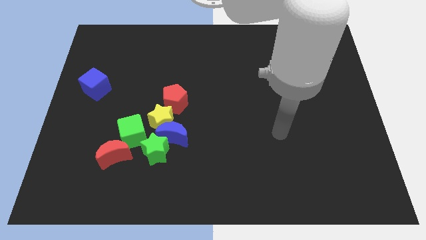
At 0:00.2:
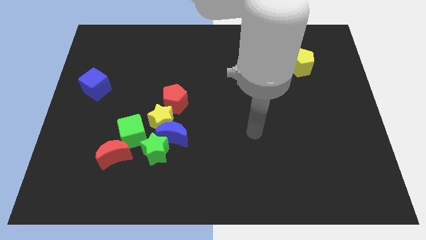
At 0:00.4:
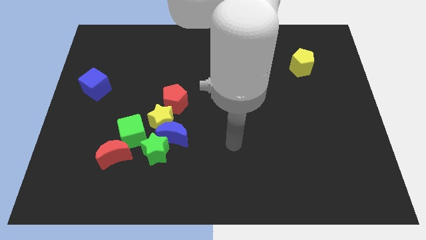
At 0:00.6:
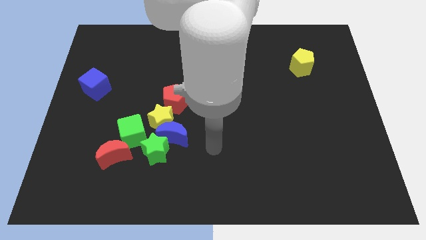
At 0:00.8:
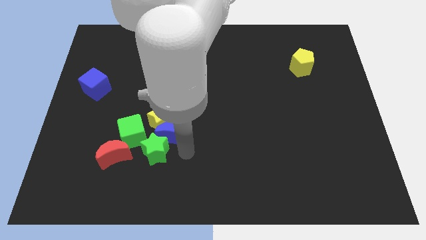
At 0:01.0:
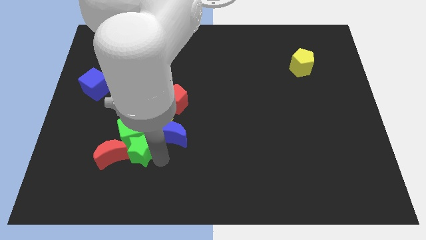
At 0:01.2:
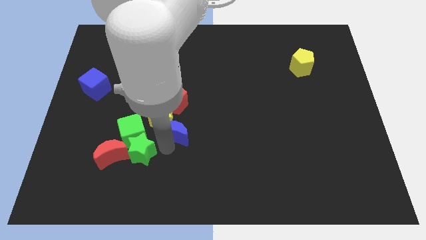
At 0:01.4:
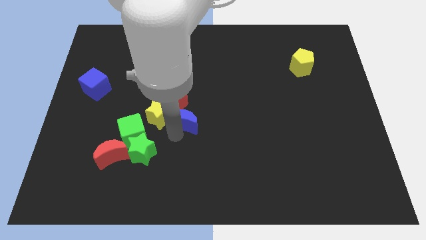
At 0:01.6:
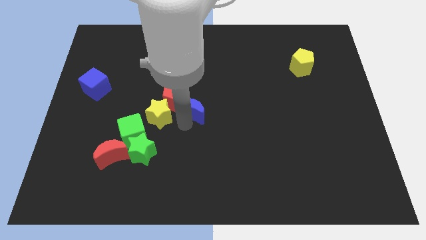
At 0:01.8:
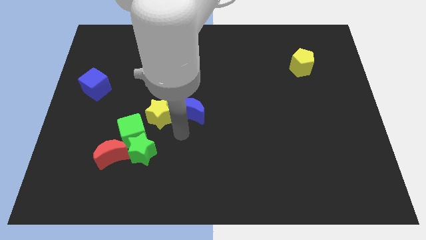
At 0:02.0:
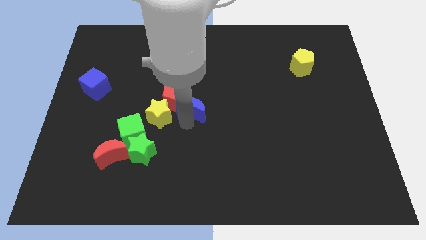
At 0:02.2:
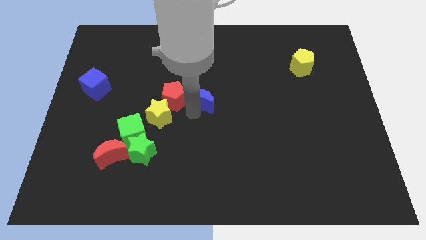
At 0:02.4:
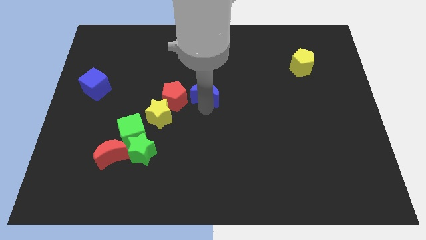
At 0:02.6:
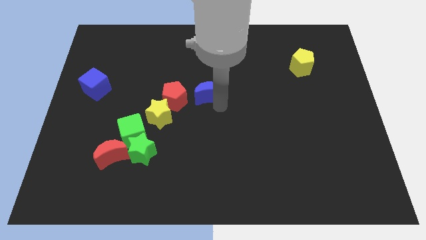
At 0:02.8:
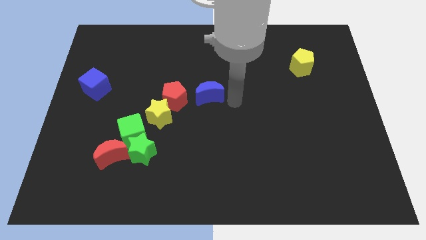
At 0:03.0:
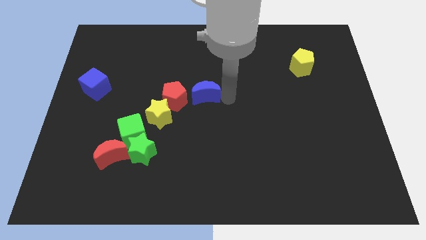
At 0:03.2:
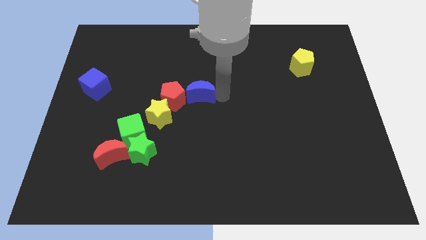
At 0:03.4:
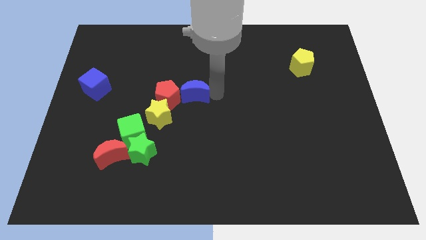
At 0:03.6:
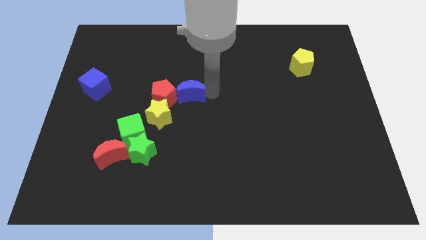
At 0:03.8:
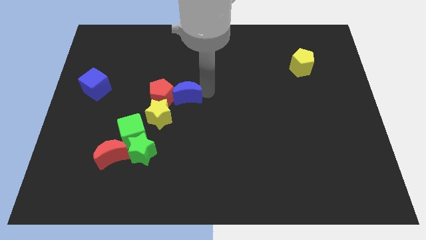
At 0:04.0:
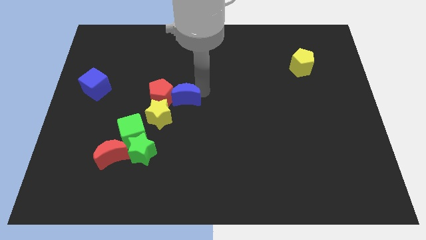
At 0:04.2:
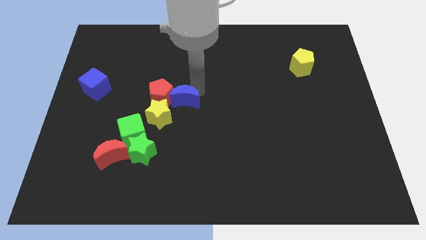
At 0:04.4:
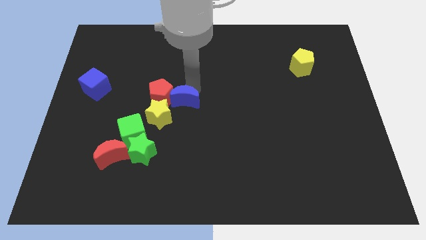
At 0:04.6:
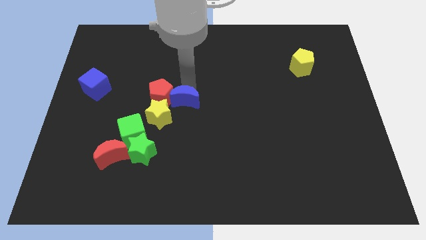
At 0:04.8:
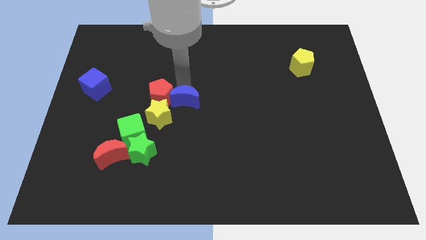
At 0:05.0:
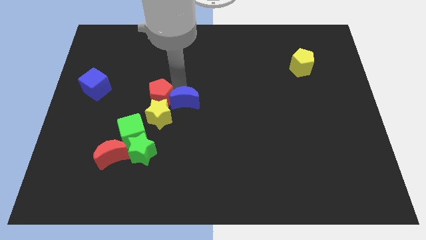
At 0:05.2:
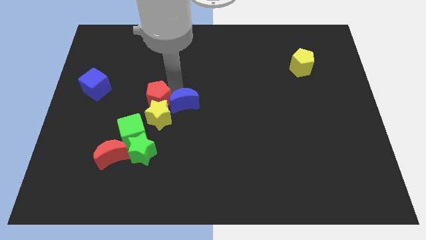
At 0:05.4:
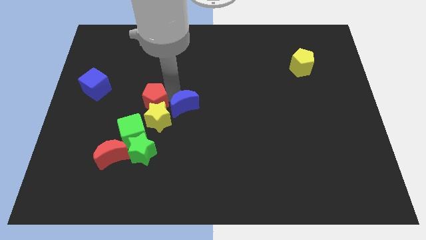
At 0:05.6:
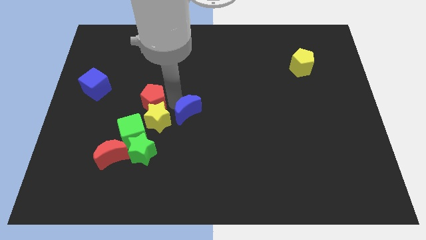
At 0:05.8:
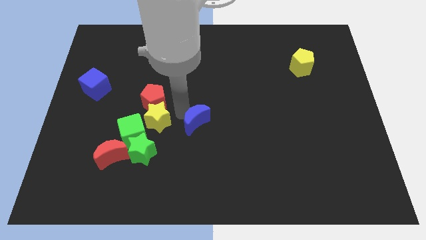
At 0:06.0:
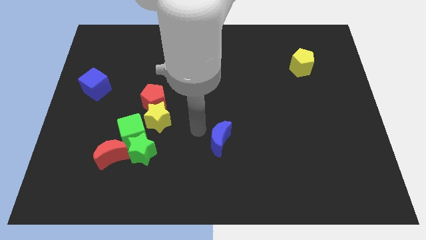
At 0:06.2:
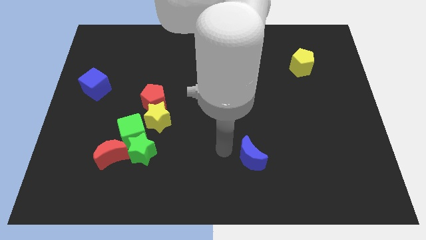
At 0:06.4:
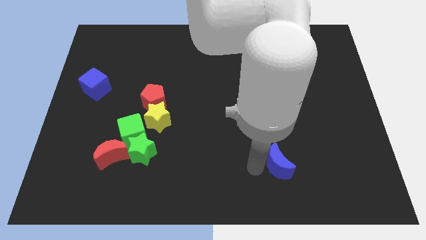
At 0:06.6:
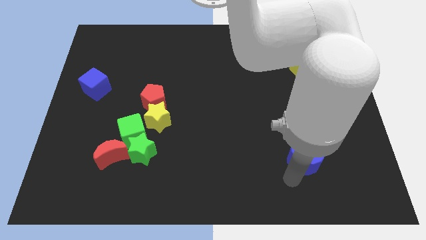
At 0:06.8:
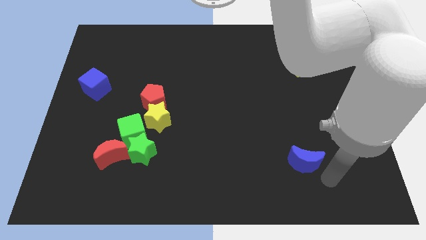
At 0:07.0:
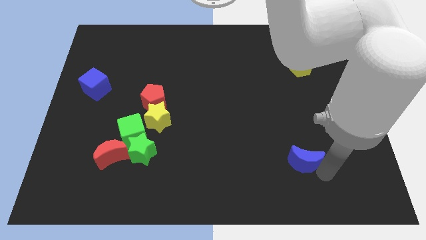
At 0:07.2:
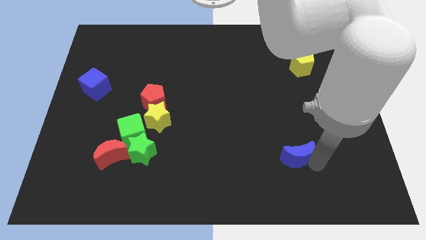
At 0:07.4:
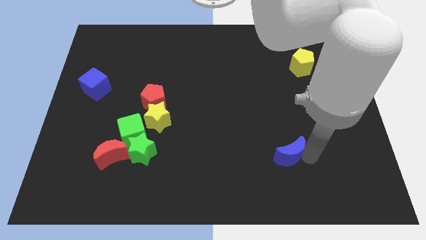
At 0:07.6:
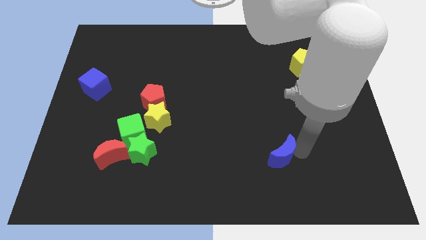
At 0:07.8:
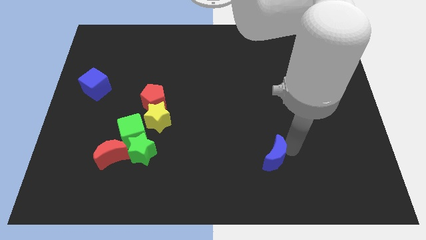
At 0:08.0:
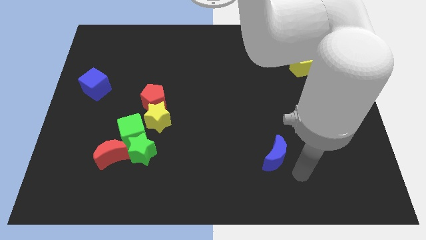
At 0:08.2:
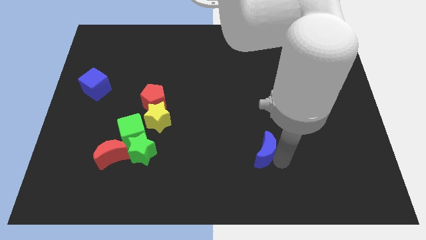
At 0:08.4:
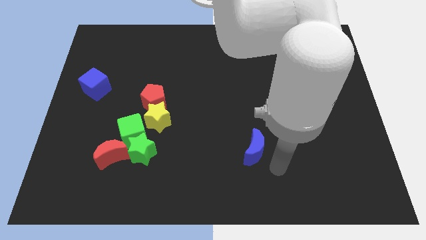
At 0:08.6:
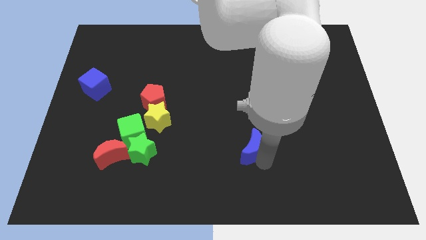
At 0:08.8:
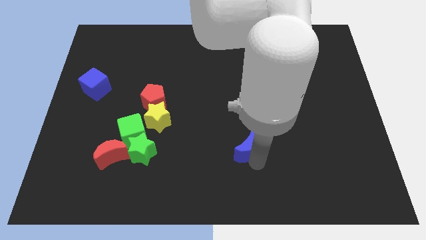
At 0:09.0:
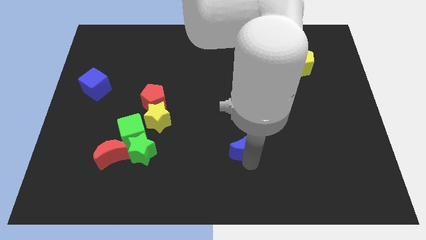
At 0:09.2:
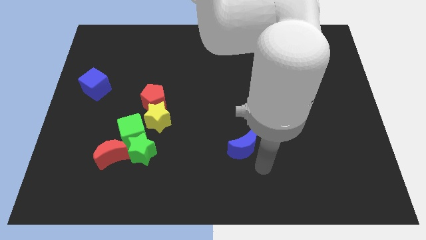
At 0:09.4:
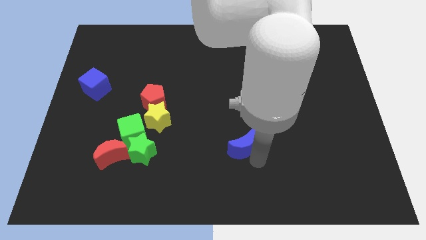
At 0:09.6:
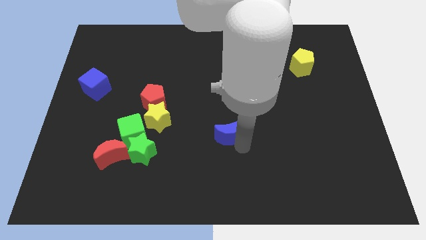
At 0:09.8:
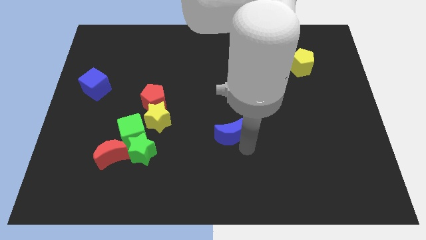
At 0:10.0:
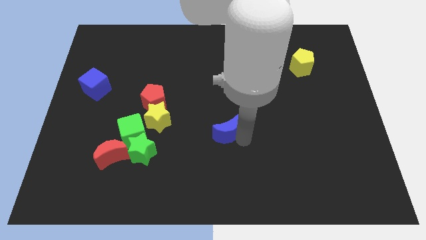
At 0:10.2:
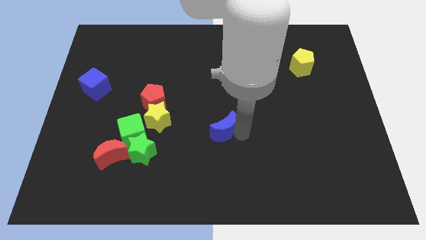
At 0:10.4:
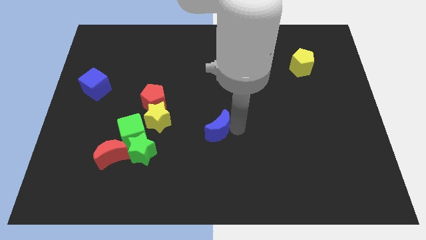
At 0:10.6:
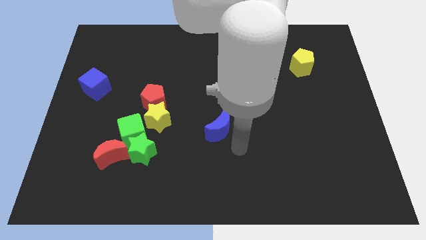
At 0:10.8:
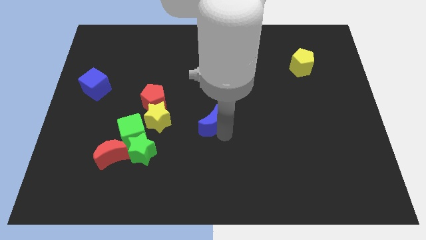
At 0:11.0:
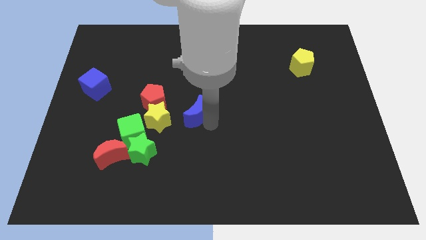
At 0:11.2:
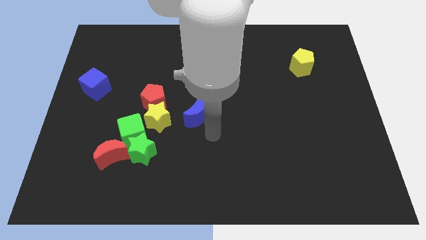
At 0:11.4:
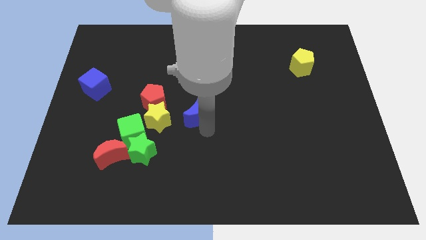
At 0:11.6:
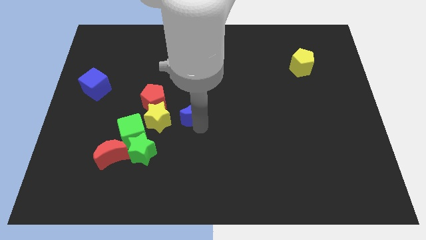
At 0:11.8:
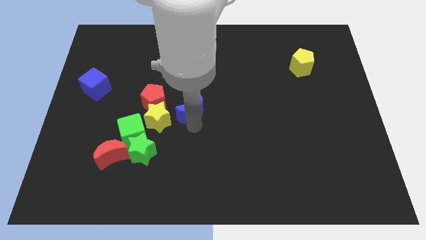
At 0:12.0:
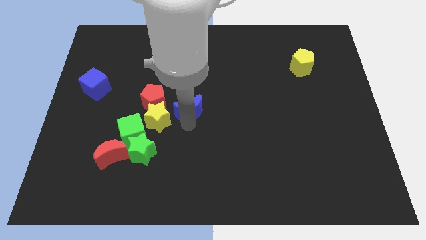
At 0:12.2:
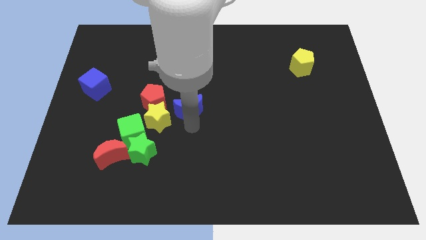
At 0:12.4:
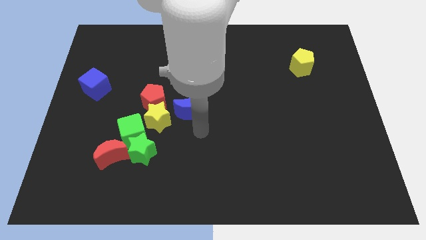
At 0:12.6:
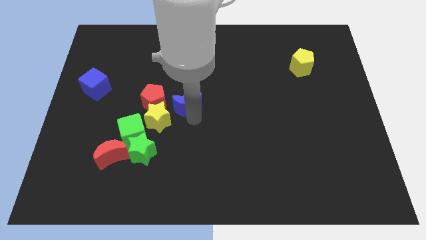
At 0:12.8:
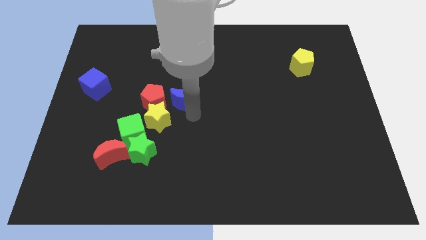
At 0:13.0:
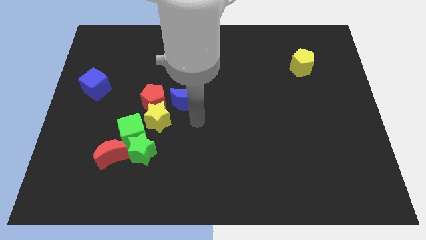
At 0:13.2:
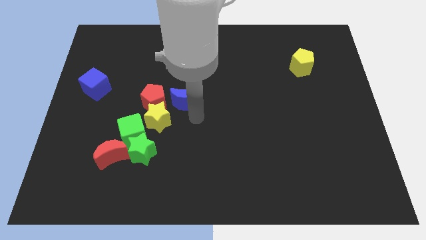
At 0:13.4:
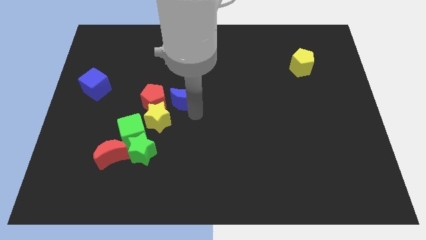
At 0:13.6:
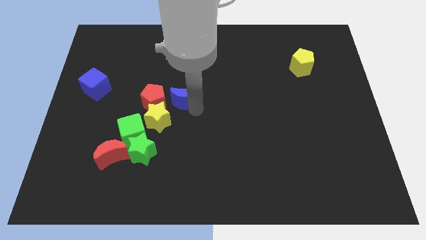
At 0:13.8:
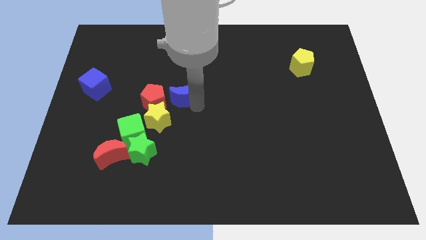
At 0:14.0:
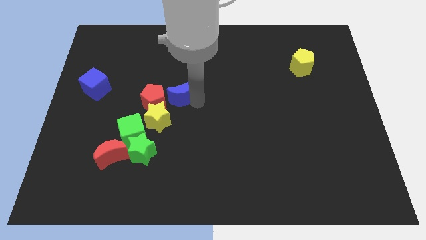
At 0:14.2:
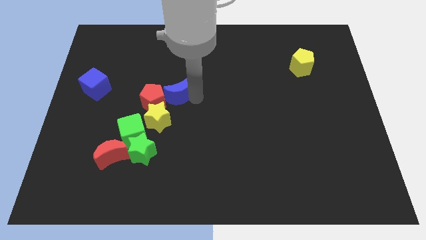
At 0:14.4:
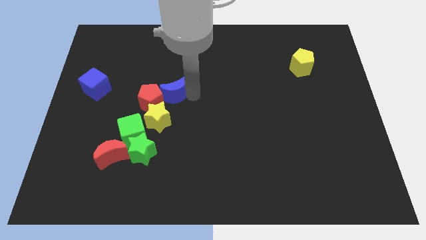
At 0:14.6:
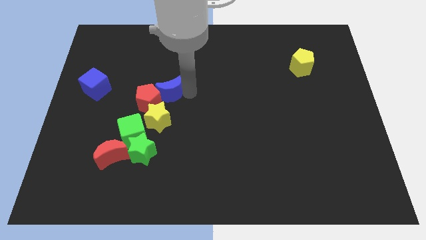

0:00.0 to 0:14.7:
move the blue moon diagonally upwards and to the left a bit

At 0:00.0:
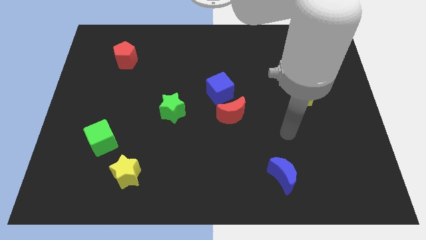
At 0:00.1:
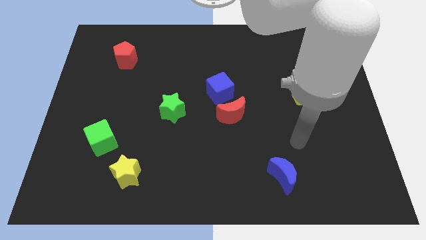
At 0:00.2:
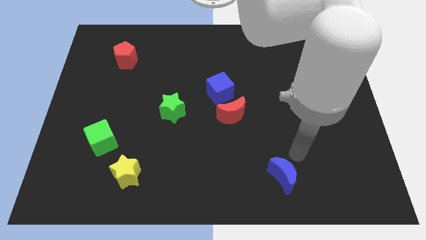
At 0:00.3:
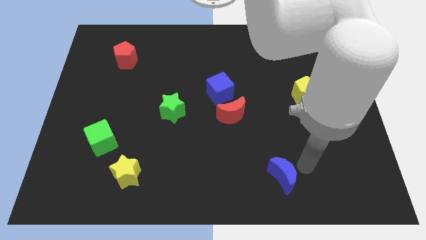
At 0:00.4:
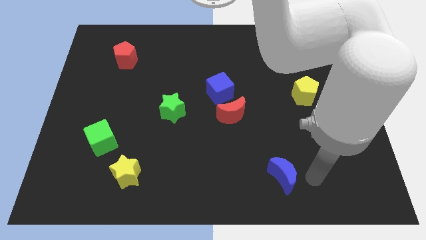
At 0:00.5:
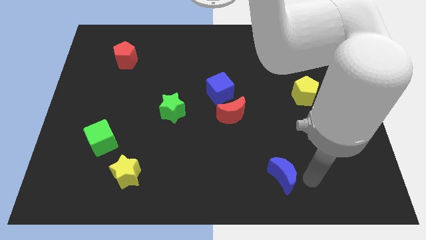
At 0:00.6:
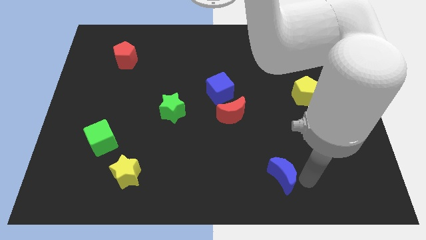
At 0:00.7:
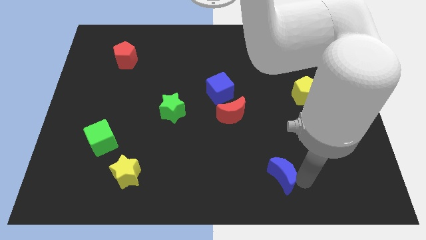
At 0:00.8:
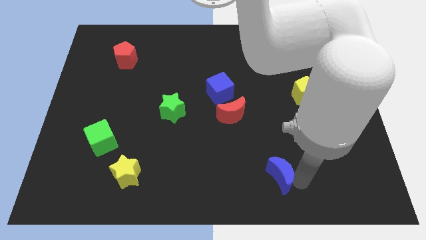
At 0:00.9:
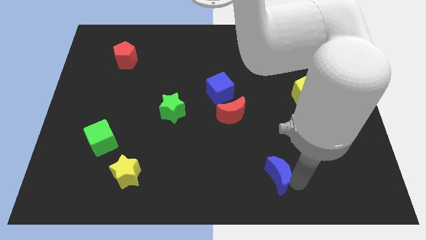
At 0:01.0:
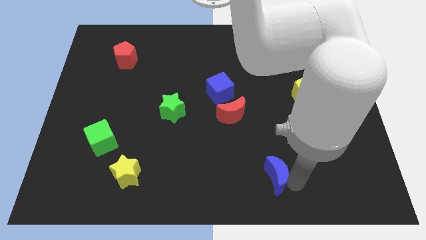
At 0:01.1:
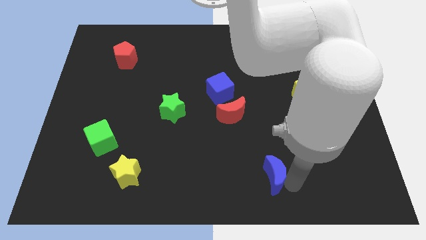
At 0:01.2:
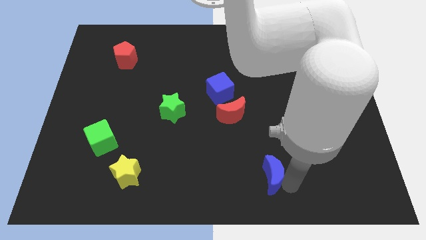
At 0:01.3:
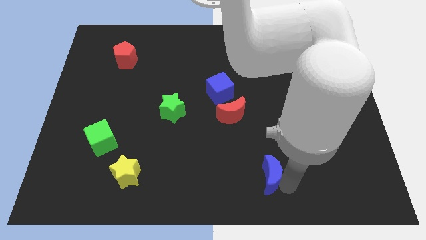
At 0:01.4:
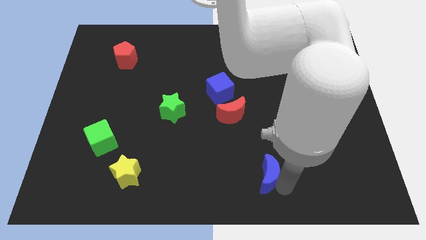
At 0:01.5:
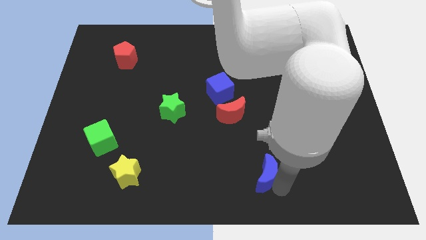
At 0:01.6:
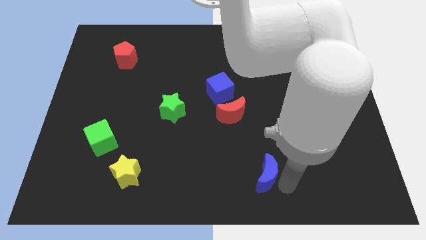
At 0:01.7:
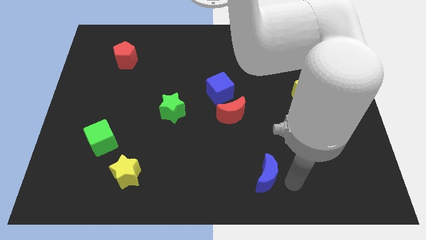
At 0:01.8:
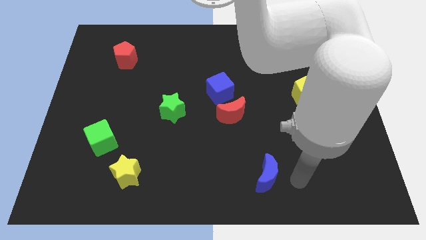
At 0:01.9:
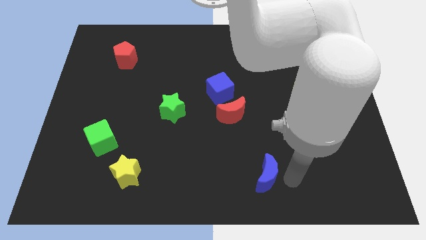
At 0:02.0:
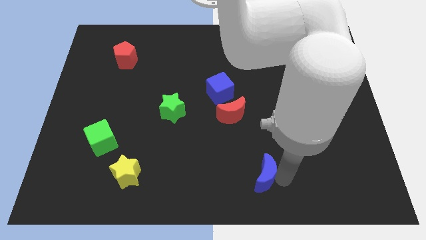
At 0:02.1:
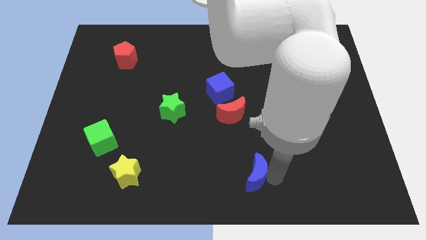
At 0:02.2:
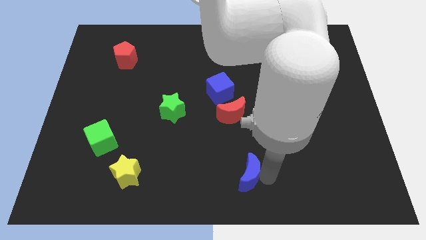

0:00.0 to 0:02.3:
slightly push the blue moon to the left
